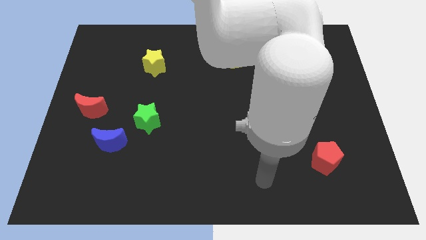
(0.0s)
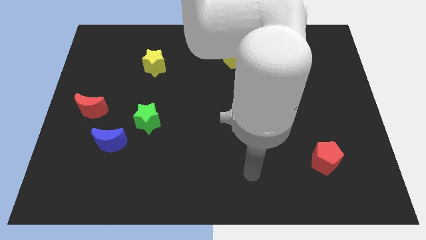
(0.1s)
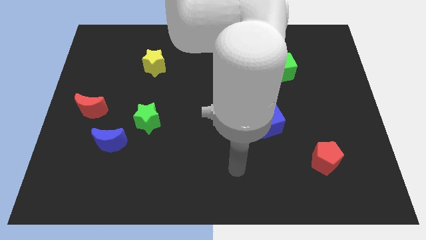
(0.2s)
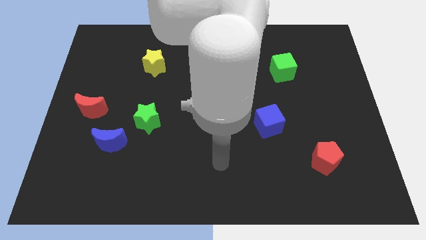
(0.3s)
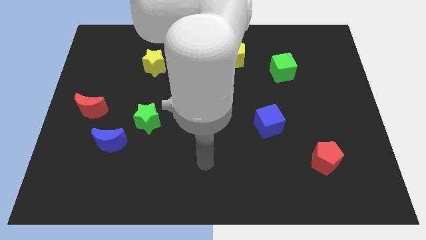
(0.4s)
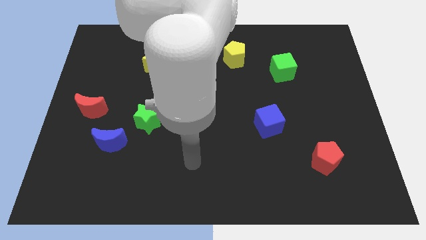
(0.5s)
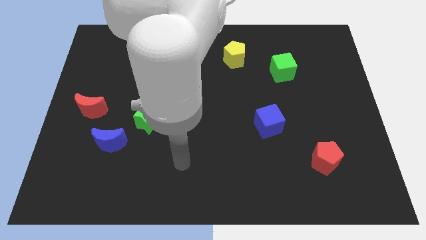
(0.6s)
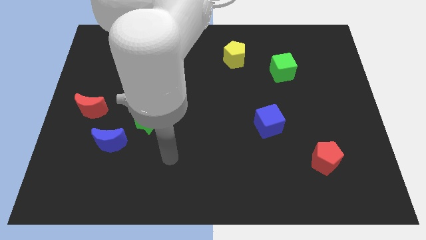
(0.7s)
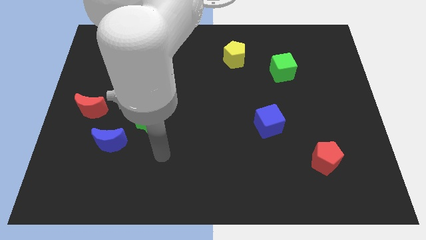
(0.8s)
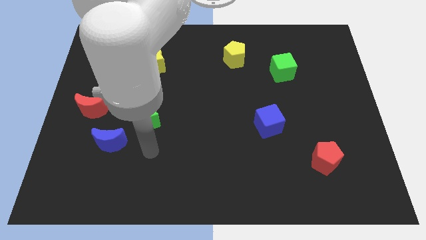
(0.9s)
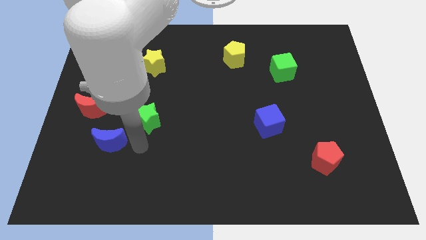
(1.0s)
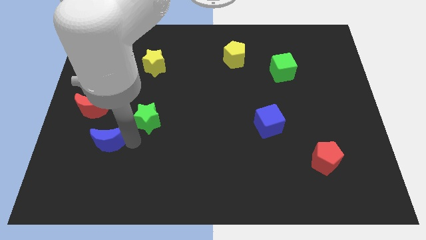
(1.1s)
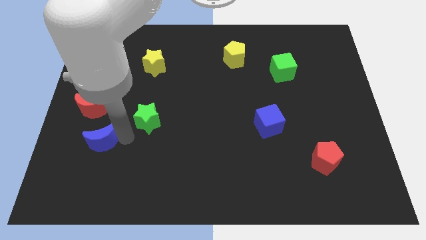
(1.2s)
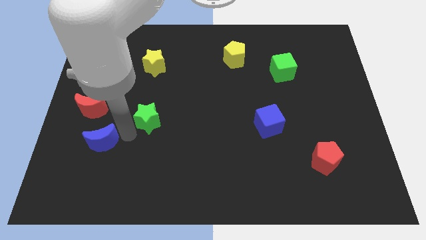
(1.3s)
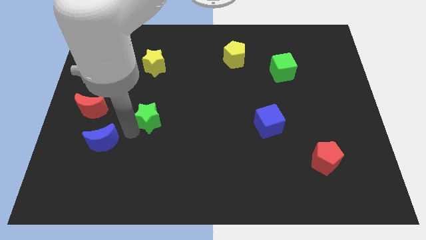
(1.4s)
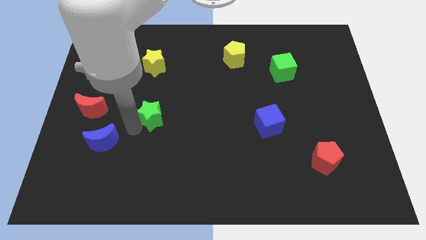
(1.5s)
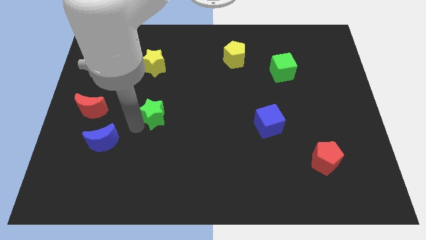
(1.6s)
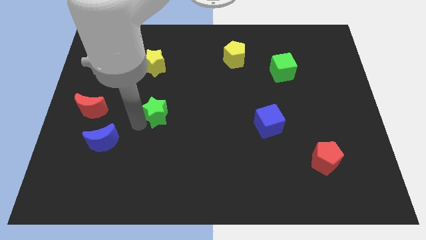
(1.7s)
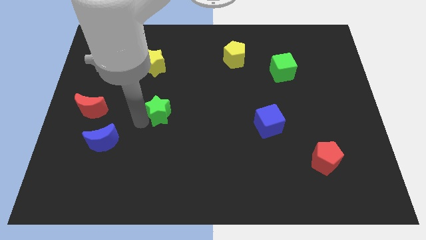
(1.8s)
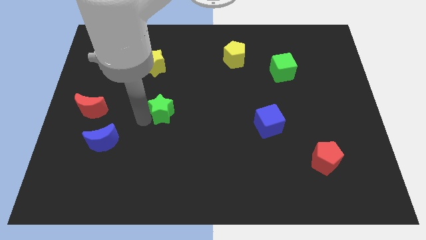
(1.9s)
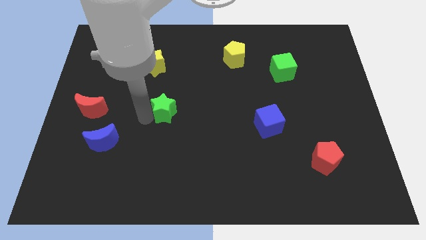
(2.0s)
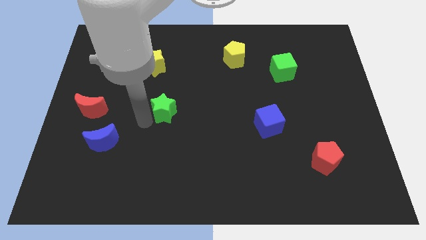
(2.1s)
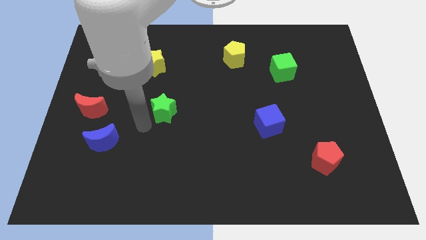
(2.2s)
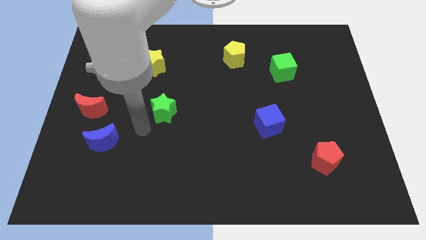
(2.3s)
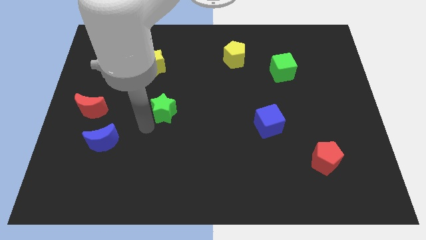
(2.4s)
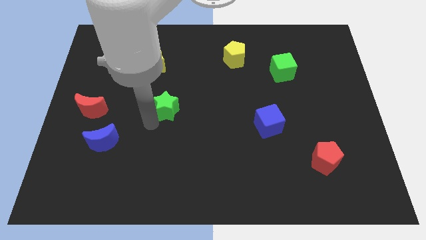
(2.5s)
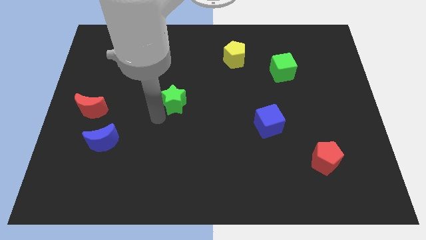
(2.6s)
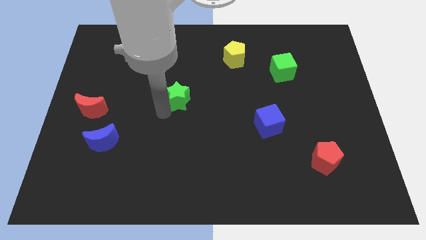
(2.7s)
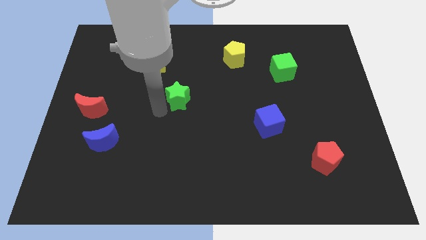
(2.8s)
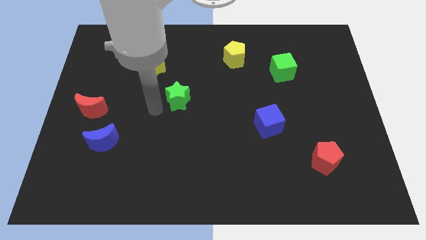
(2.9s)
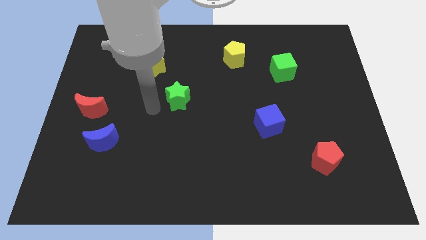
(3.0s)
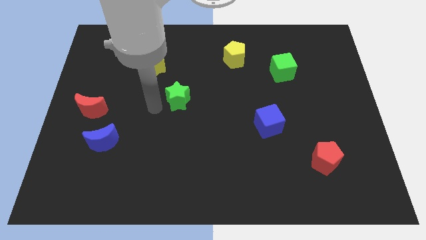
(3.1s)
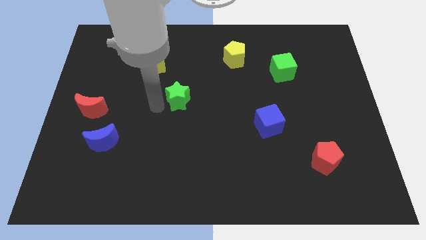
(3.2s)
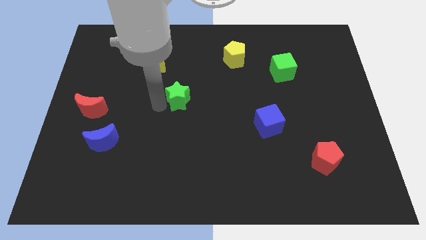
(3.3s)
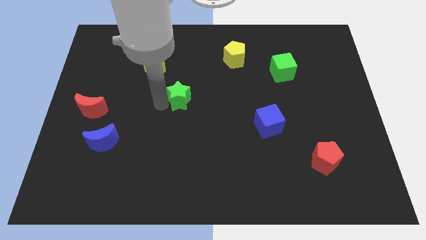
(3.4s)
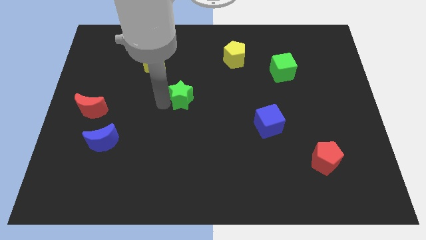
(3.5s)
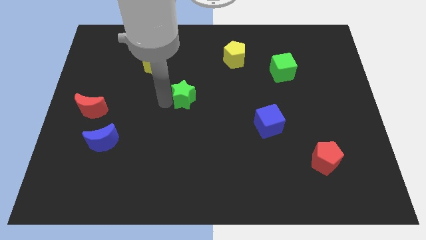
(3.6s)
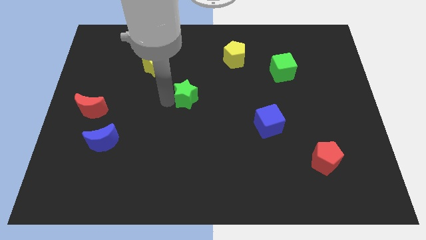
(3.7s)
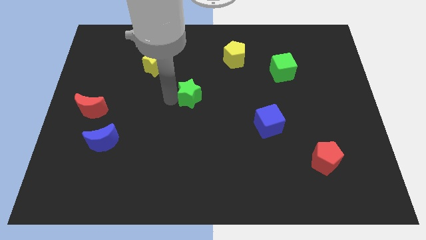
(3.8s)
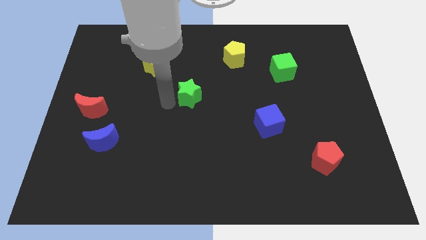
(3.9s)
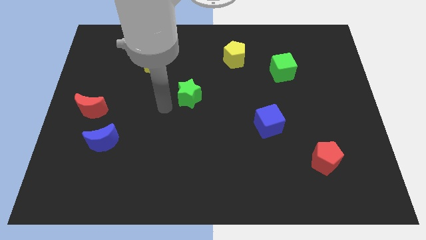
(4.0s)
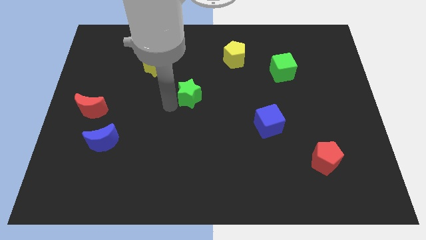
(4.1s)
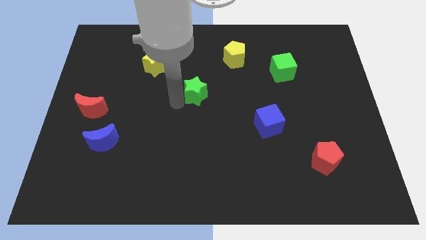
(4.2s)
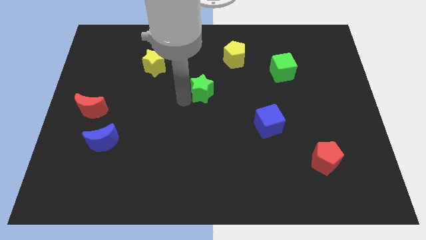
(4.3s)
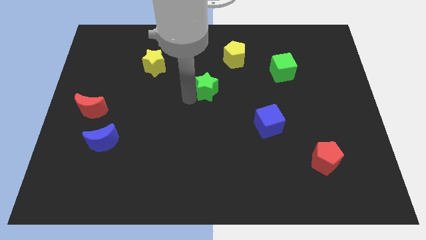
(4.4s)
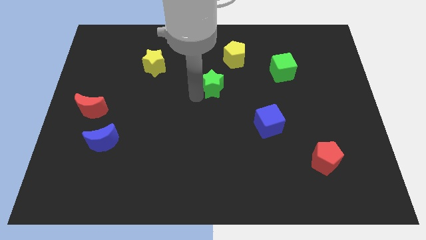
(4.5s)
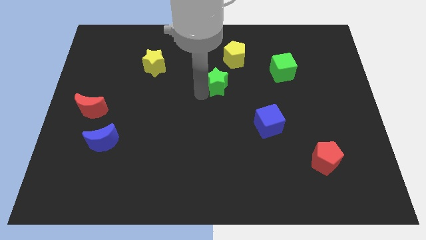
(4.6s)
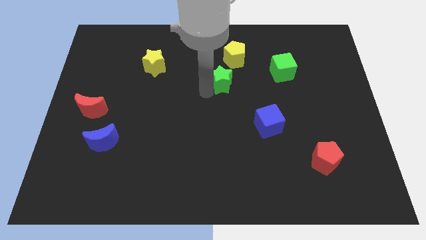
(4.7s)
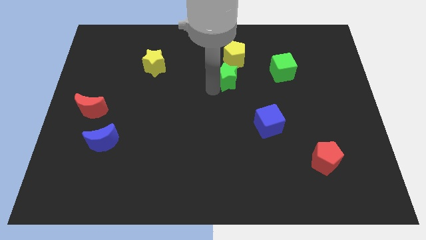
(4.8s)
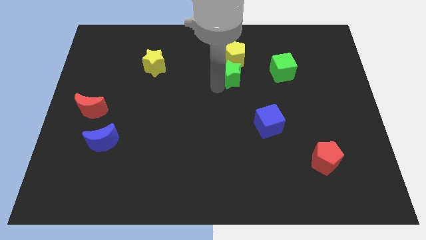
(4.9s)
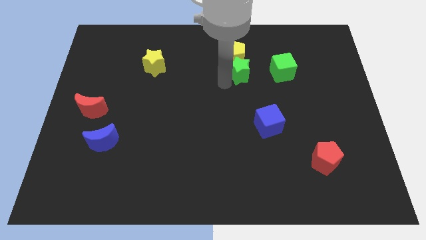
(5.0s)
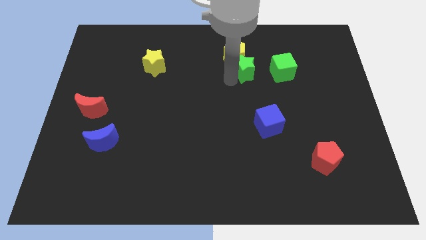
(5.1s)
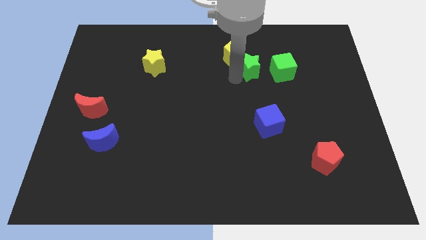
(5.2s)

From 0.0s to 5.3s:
push the green star to the right of the yellow pentagon

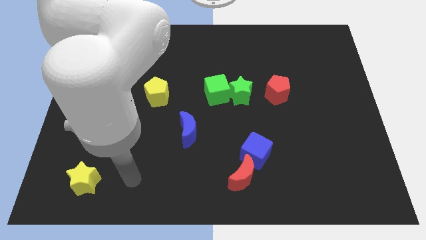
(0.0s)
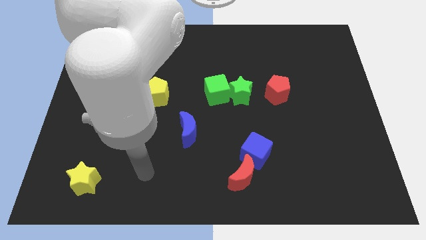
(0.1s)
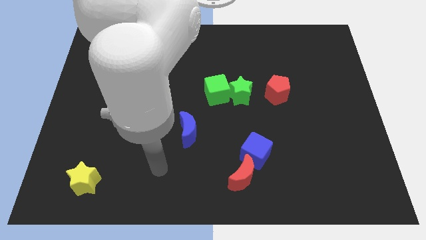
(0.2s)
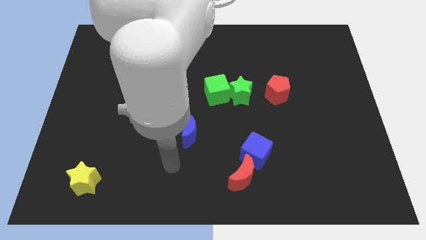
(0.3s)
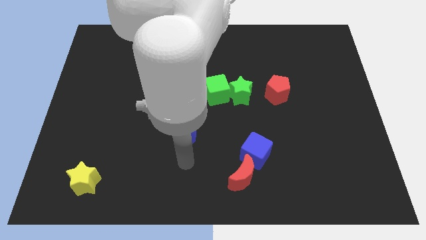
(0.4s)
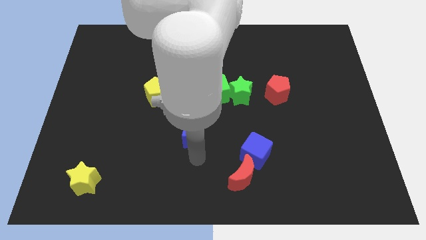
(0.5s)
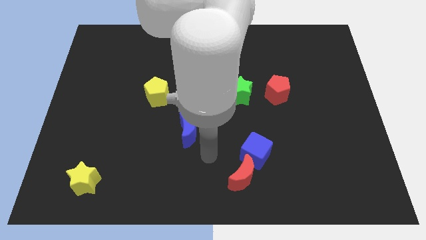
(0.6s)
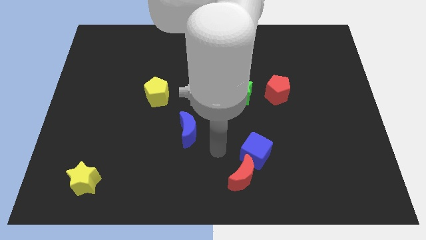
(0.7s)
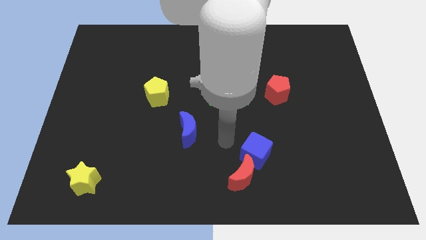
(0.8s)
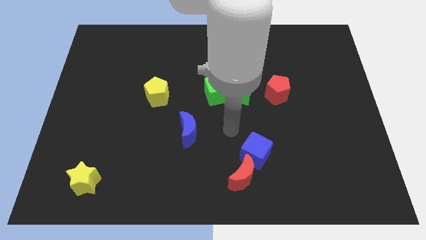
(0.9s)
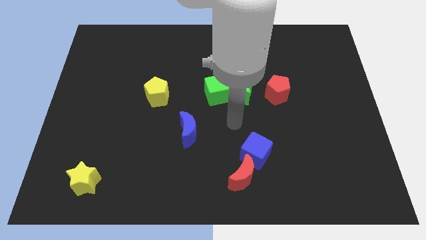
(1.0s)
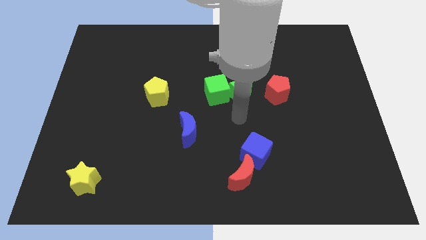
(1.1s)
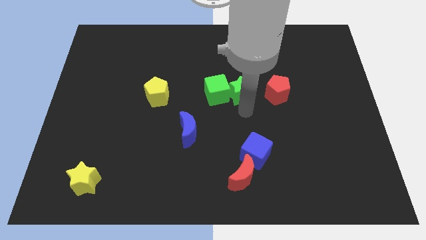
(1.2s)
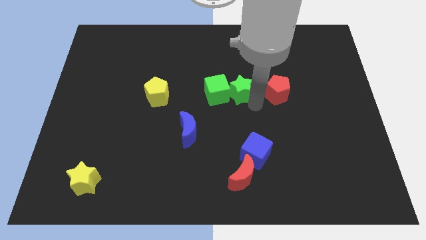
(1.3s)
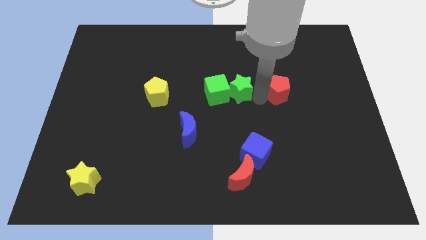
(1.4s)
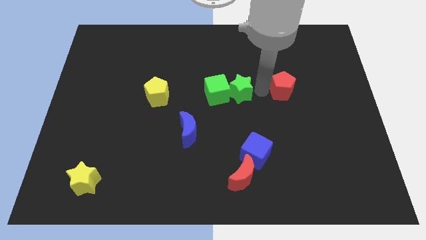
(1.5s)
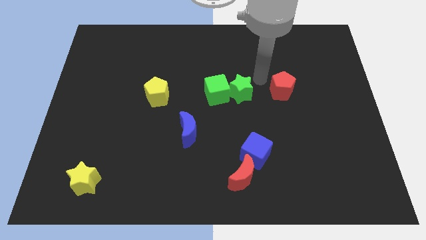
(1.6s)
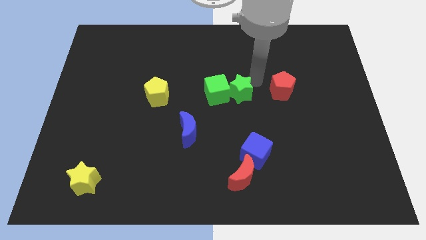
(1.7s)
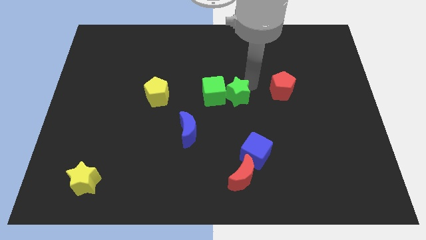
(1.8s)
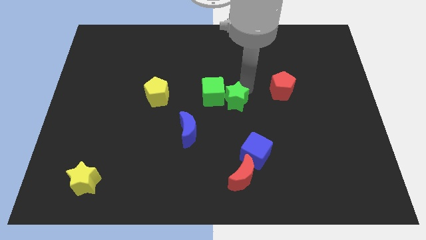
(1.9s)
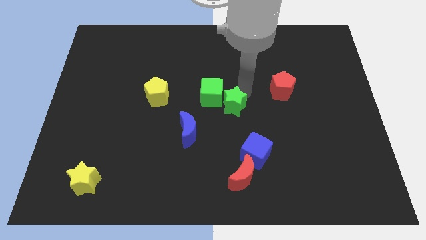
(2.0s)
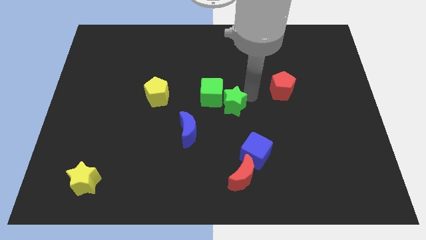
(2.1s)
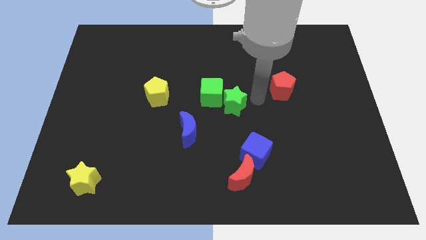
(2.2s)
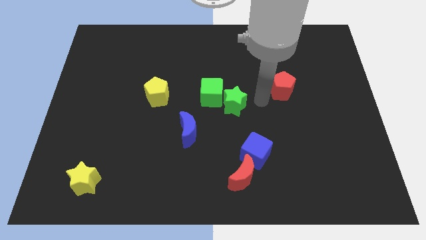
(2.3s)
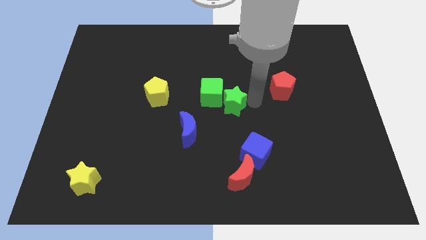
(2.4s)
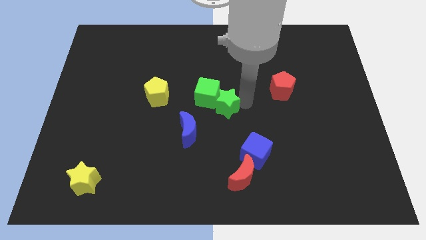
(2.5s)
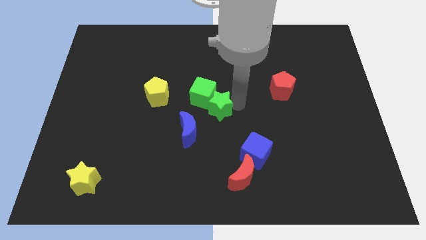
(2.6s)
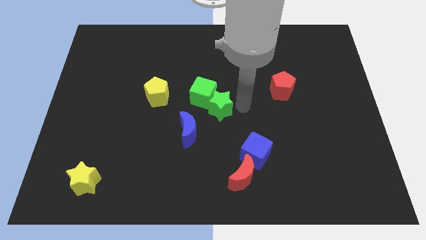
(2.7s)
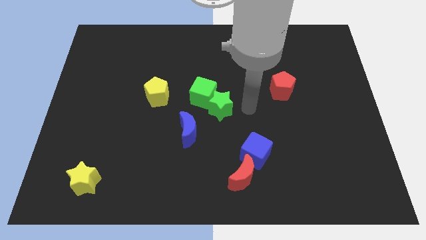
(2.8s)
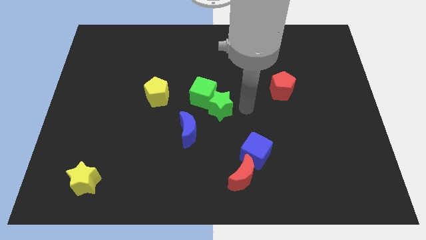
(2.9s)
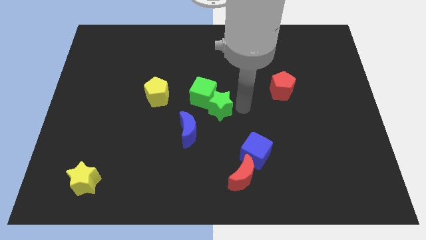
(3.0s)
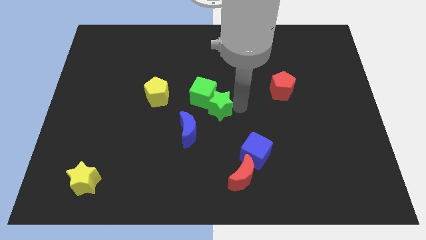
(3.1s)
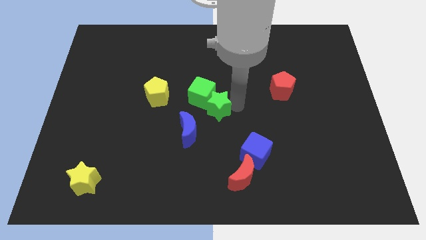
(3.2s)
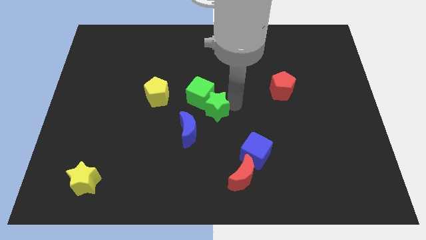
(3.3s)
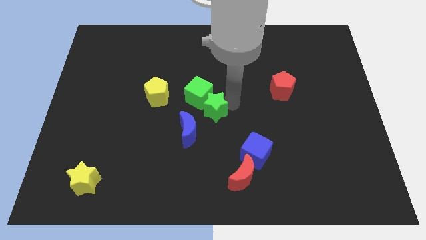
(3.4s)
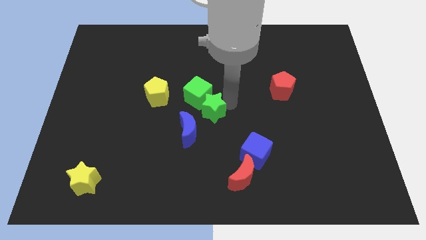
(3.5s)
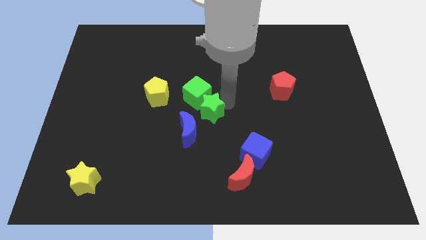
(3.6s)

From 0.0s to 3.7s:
slide the green star to the right of the yellow pentagon
